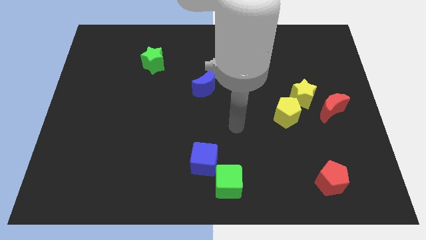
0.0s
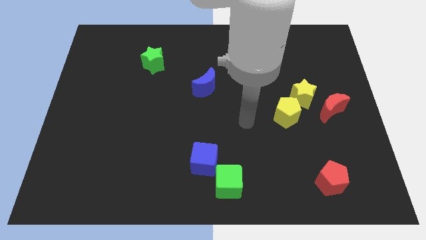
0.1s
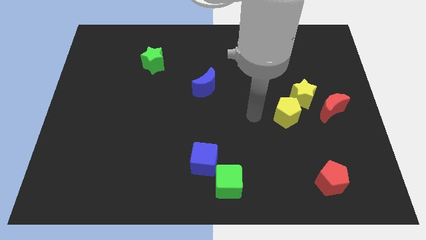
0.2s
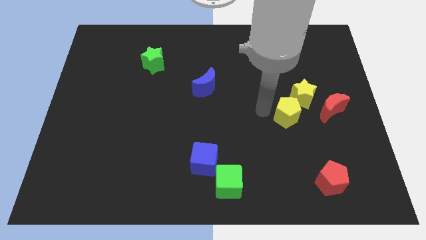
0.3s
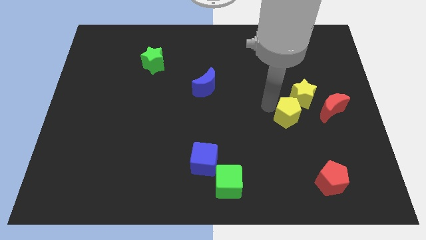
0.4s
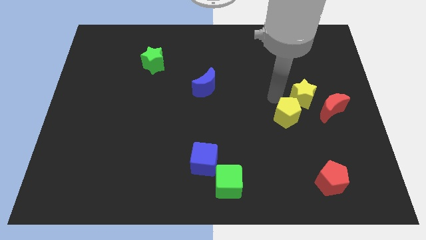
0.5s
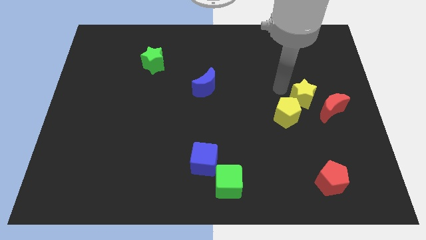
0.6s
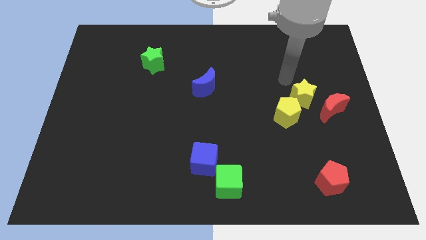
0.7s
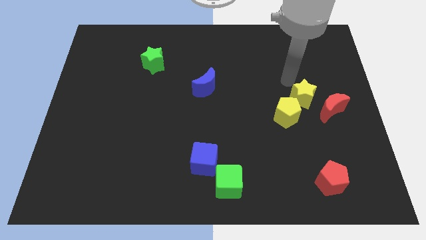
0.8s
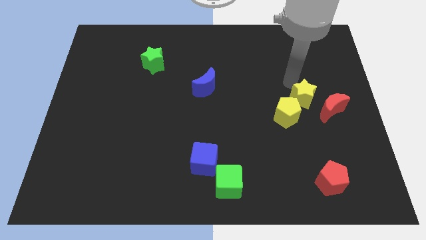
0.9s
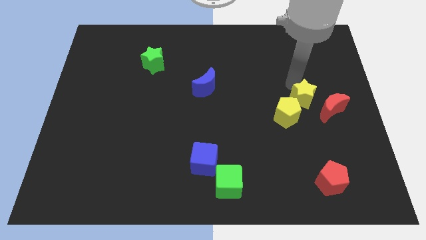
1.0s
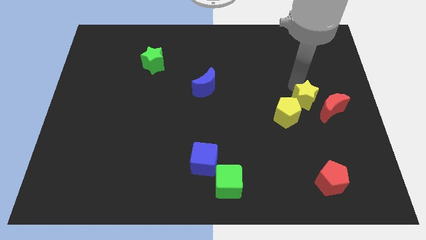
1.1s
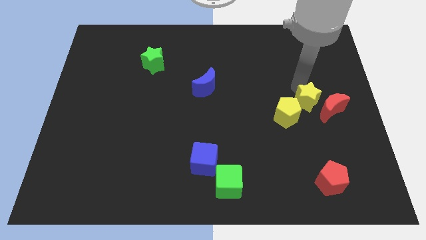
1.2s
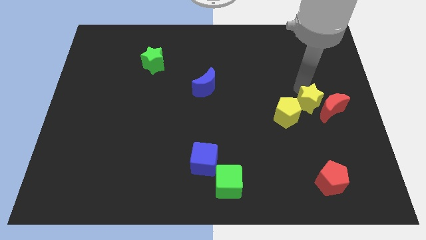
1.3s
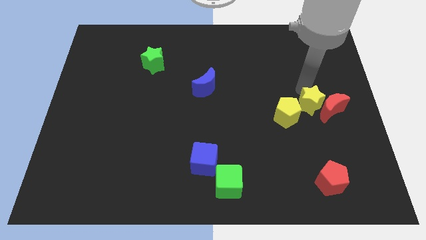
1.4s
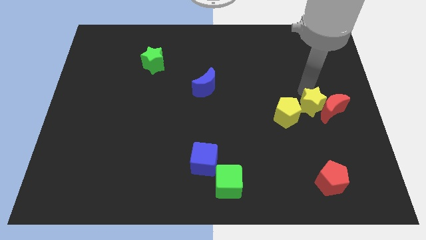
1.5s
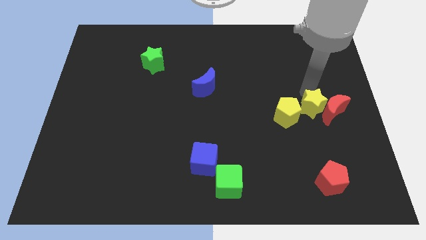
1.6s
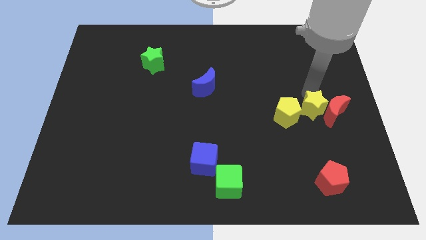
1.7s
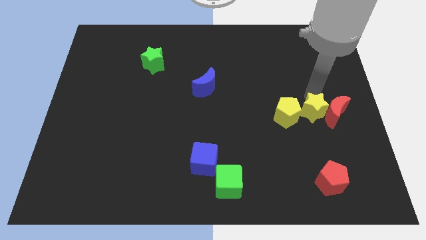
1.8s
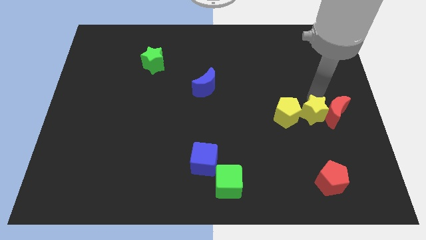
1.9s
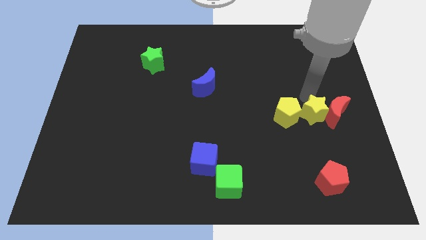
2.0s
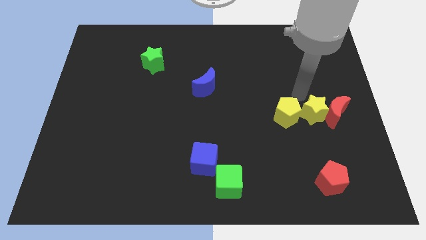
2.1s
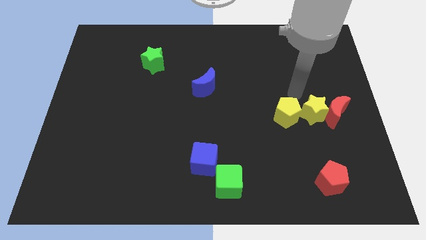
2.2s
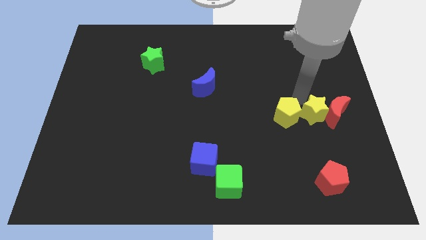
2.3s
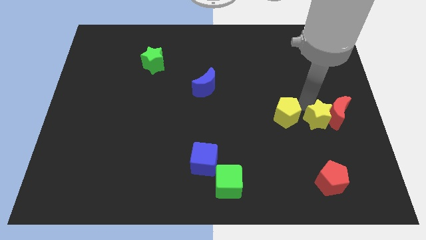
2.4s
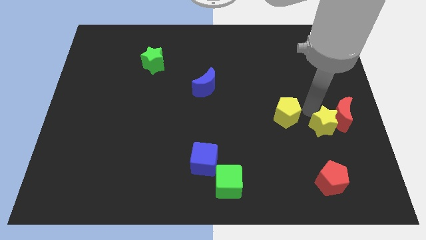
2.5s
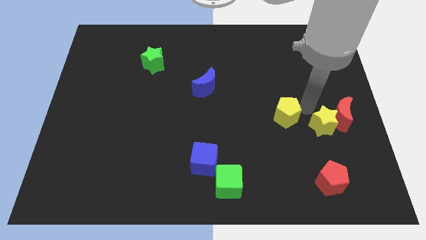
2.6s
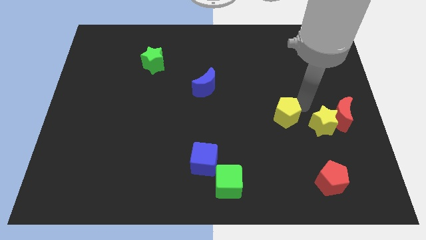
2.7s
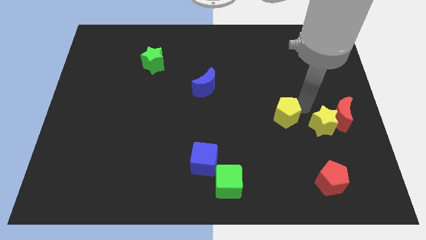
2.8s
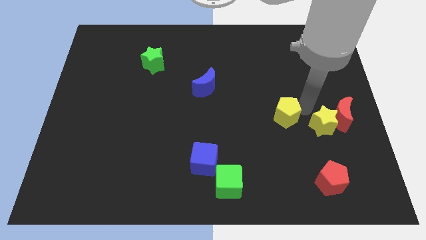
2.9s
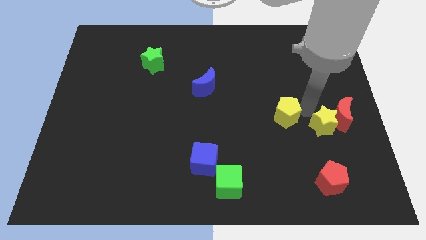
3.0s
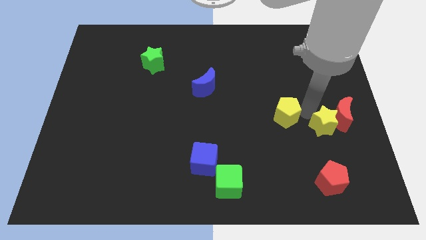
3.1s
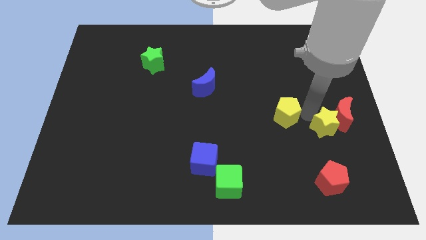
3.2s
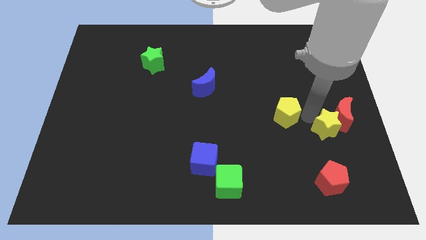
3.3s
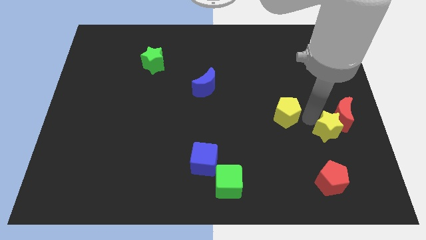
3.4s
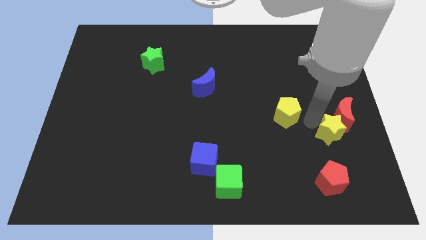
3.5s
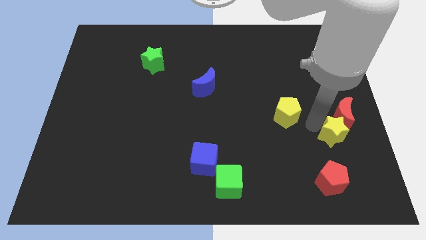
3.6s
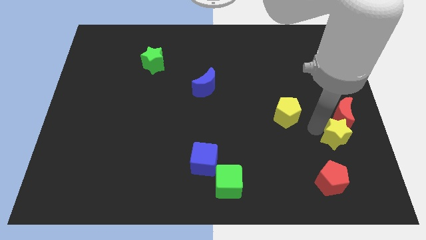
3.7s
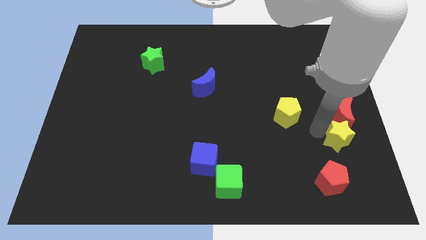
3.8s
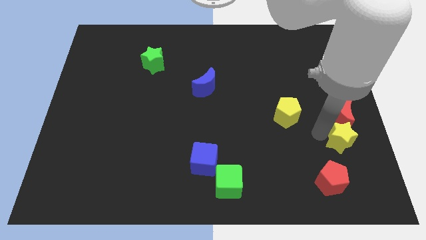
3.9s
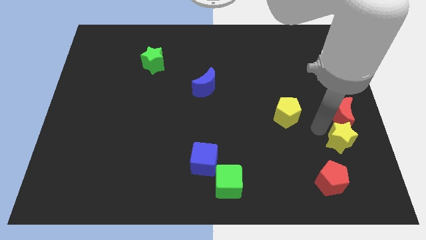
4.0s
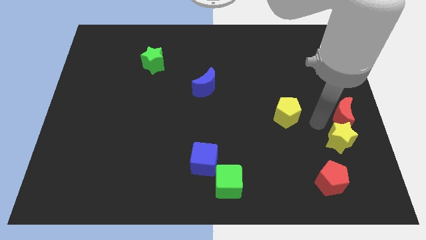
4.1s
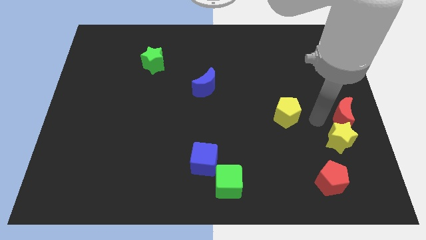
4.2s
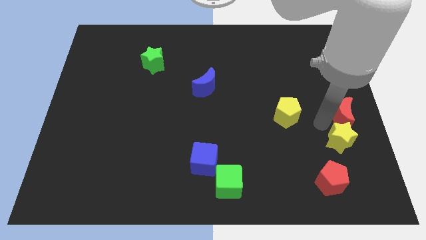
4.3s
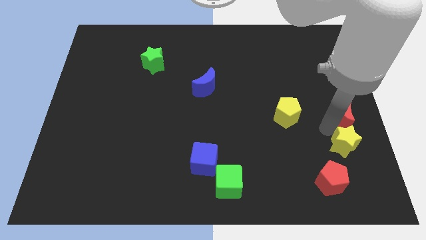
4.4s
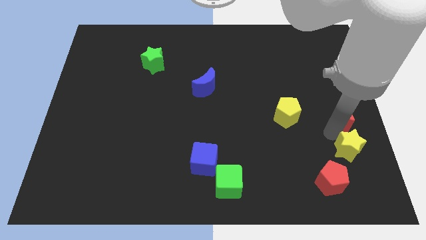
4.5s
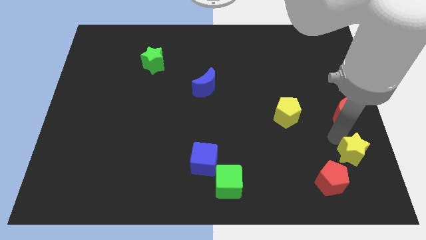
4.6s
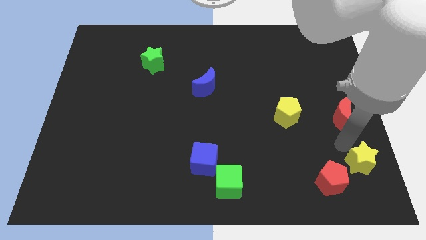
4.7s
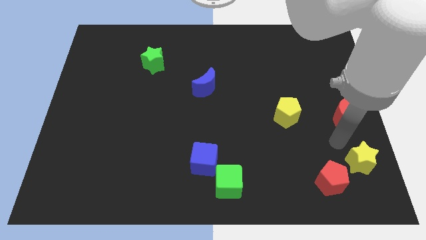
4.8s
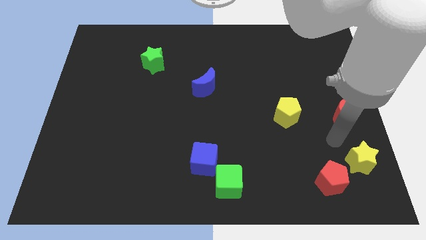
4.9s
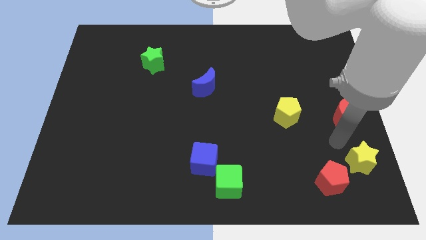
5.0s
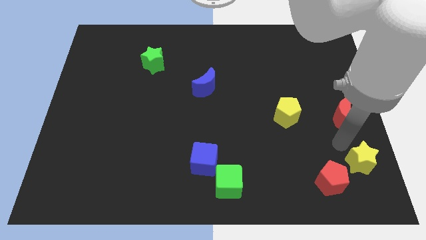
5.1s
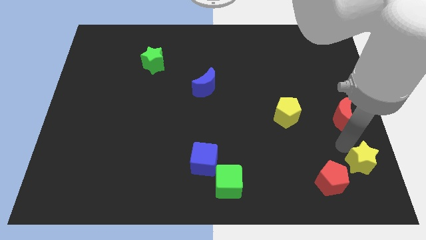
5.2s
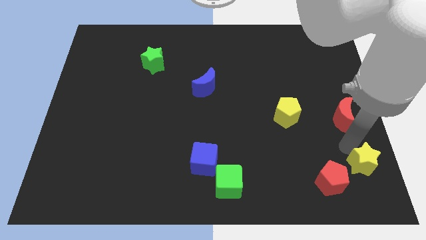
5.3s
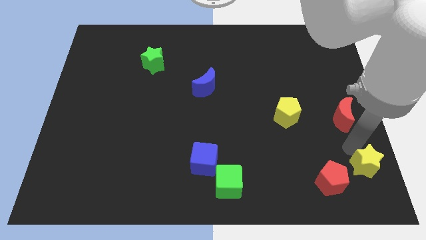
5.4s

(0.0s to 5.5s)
put the yellow star to the lower right corner

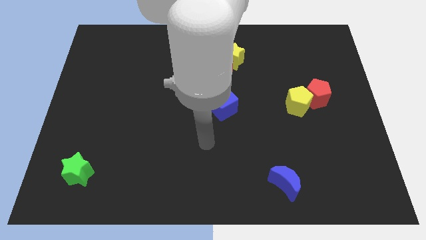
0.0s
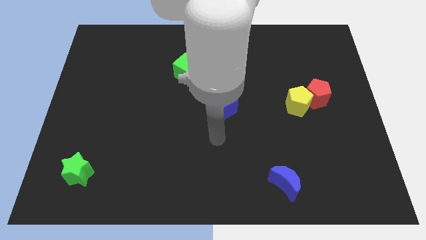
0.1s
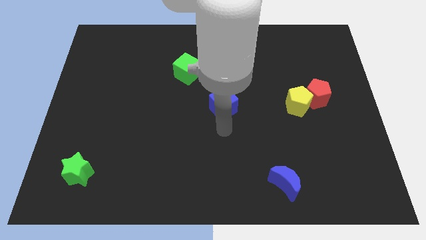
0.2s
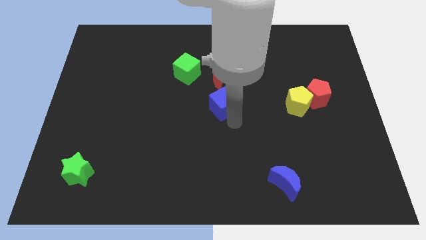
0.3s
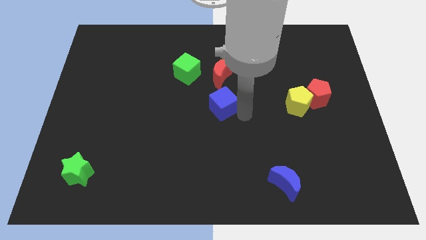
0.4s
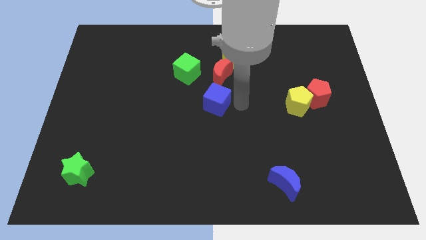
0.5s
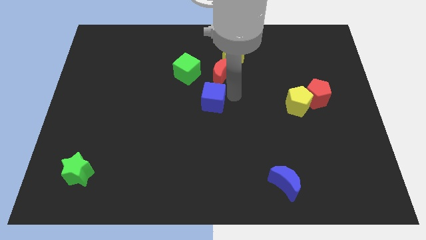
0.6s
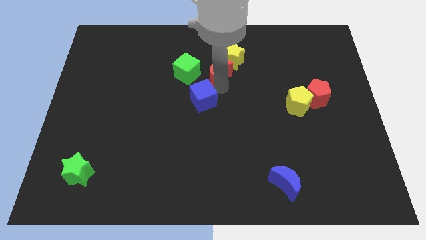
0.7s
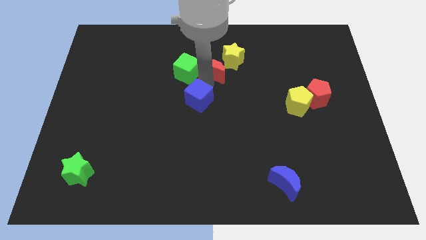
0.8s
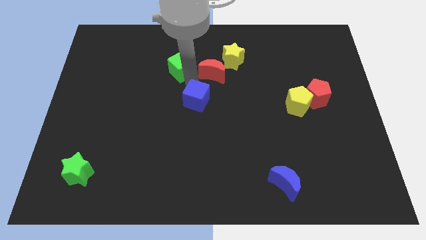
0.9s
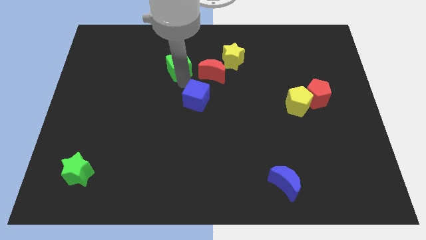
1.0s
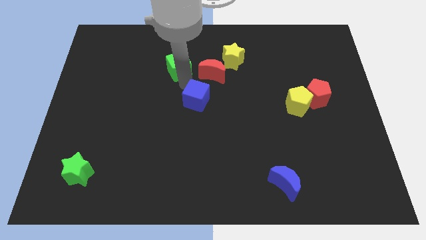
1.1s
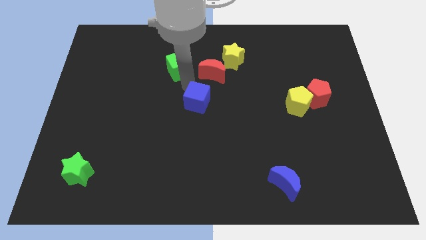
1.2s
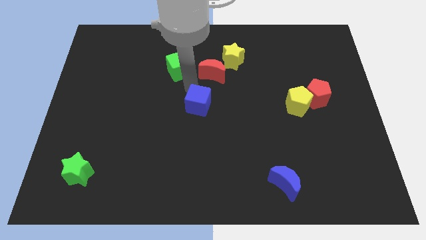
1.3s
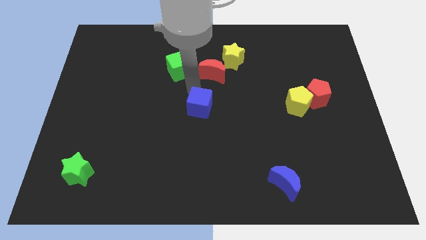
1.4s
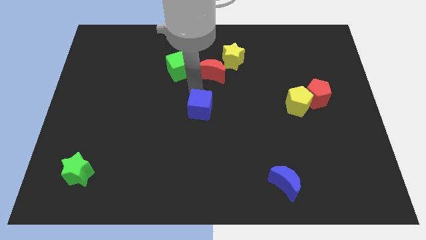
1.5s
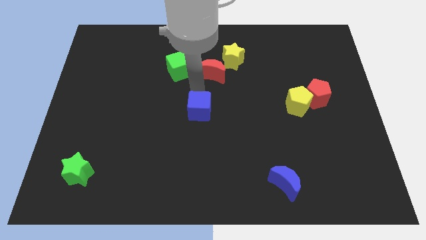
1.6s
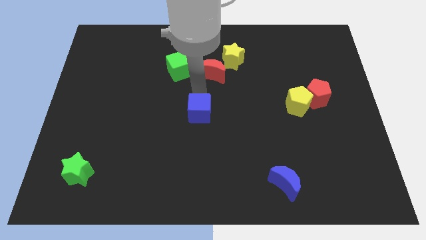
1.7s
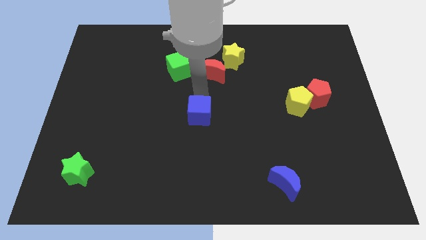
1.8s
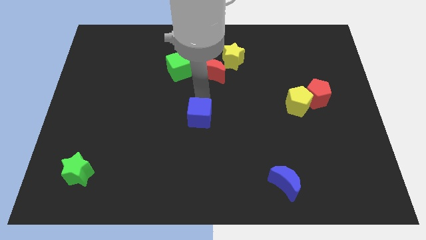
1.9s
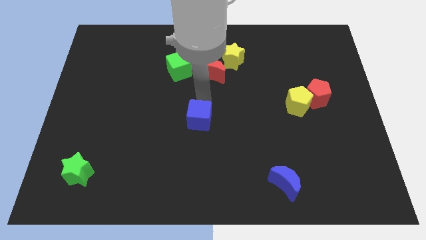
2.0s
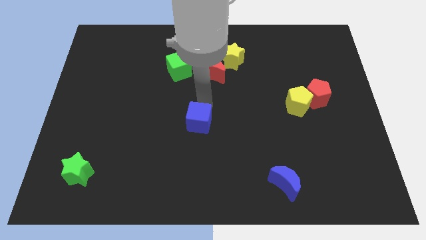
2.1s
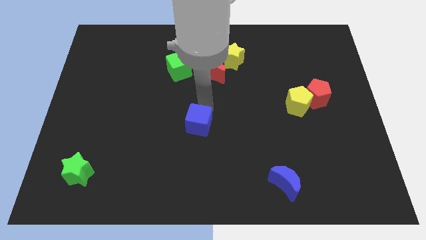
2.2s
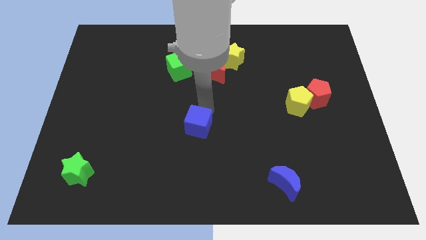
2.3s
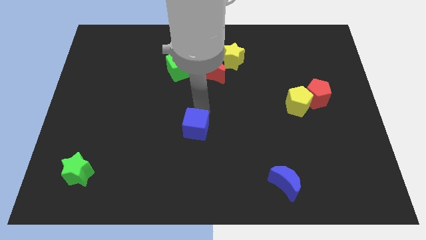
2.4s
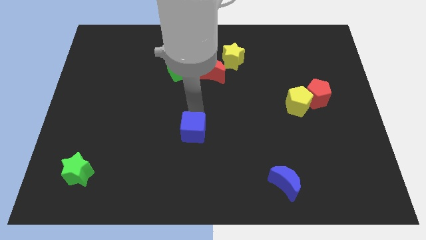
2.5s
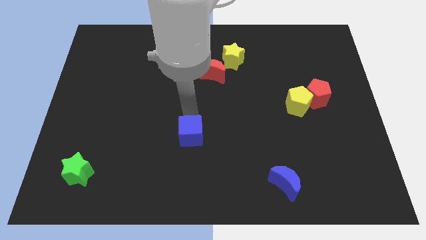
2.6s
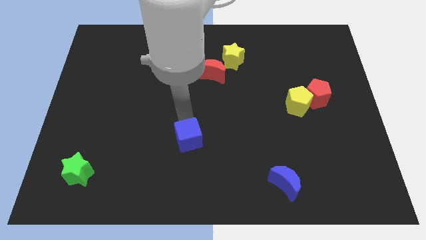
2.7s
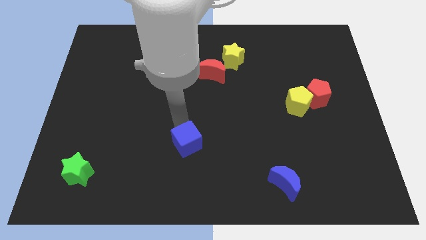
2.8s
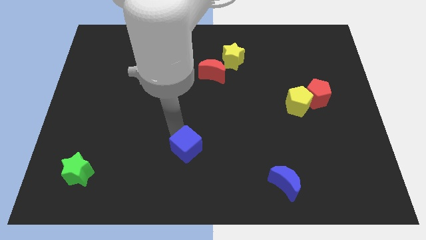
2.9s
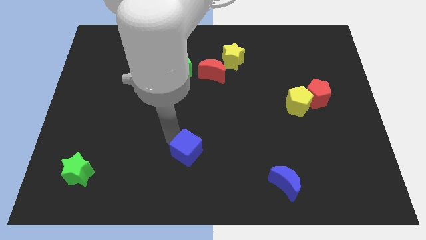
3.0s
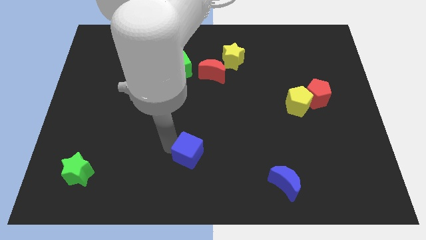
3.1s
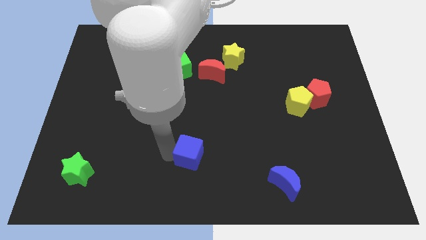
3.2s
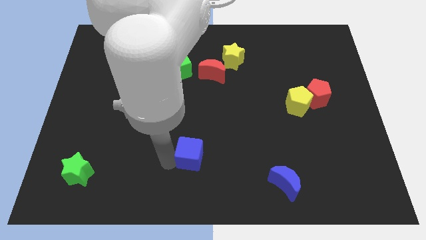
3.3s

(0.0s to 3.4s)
move the blue cube to the bottom side
